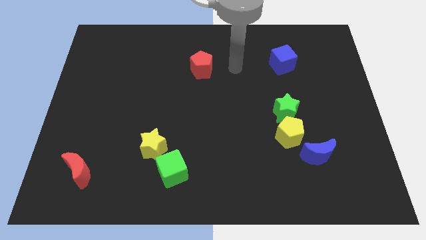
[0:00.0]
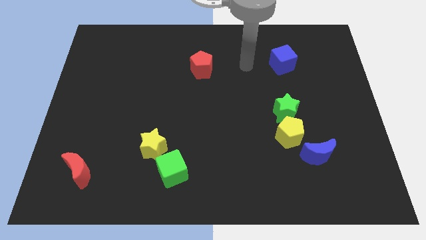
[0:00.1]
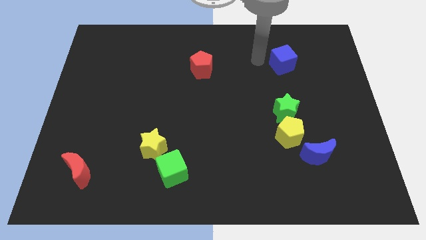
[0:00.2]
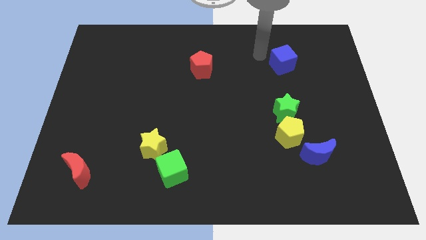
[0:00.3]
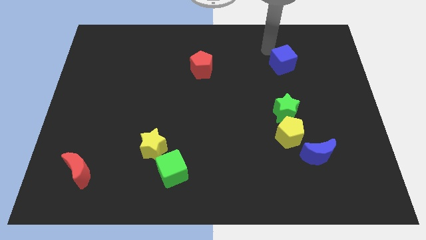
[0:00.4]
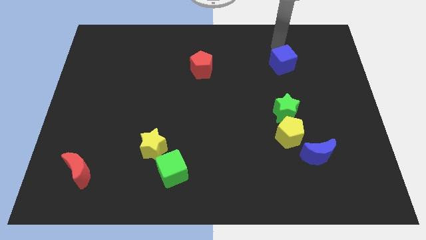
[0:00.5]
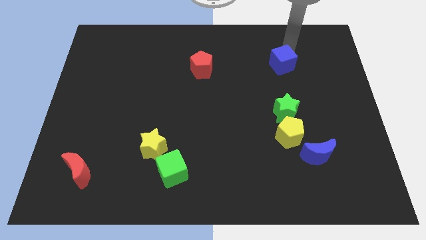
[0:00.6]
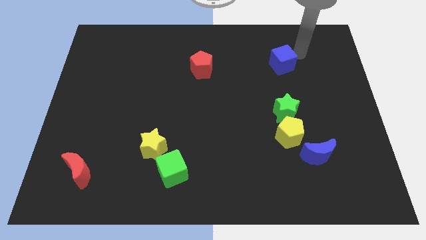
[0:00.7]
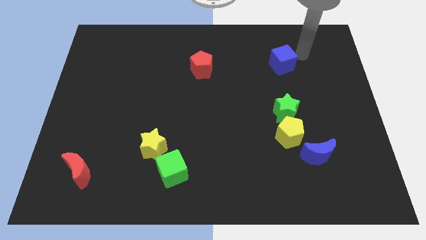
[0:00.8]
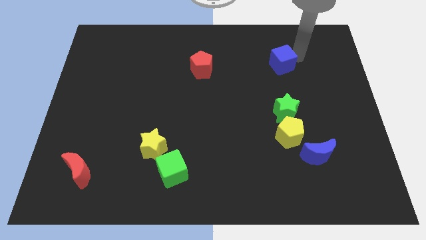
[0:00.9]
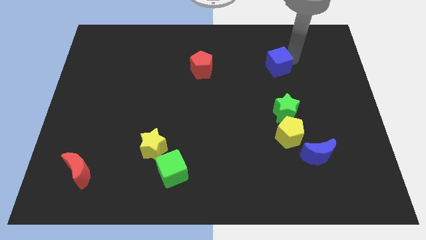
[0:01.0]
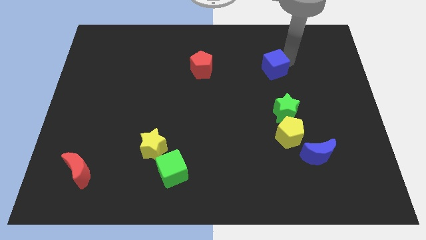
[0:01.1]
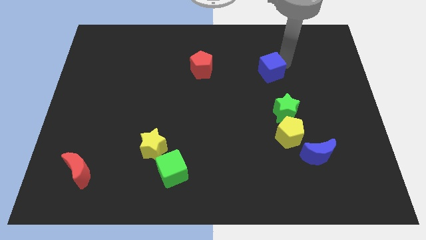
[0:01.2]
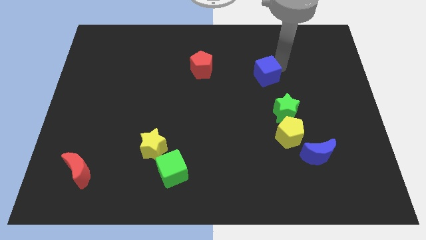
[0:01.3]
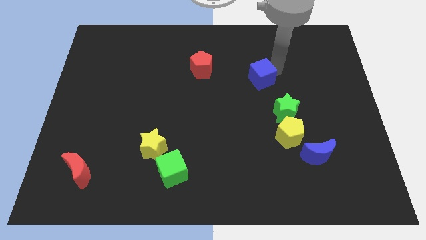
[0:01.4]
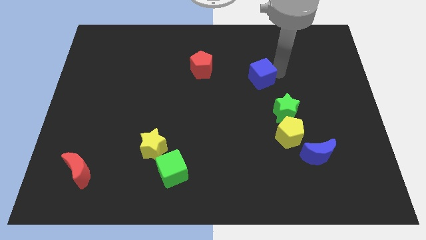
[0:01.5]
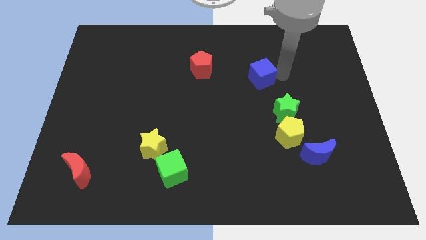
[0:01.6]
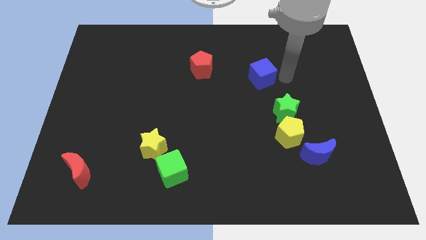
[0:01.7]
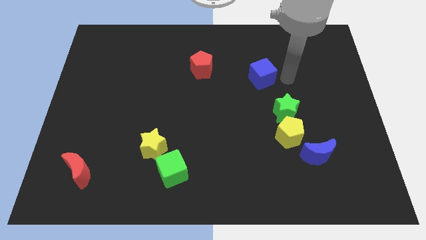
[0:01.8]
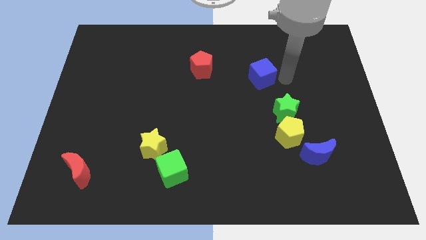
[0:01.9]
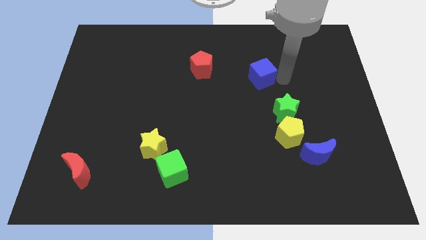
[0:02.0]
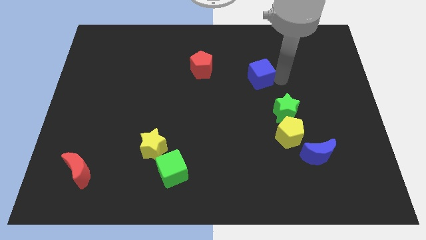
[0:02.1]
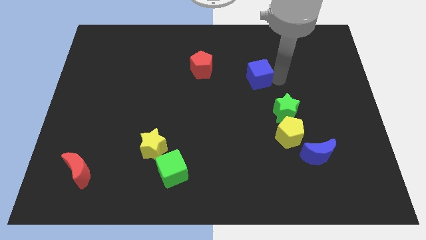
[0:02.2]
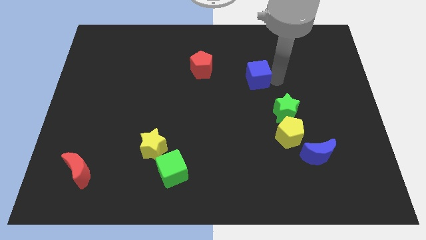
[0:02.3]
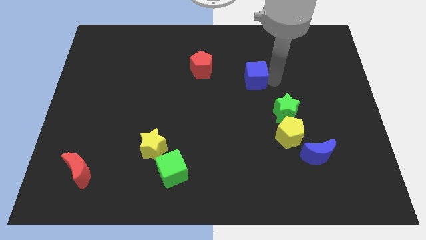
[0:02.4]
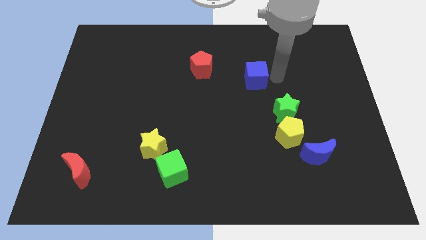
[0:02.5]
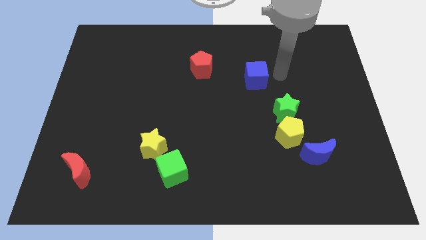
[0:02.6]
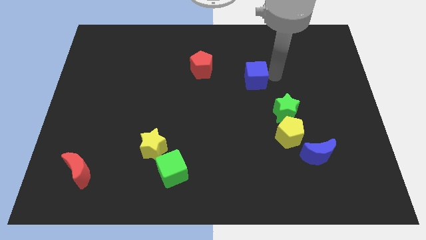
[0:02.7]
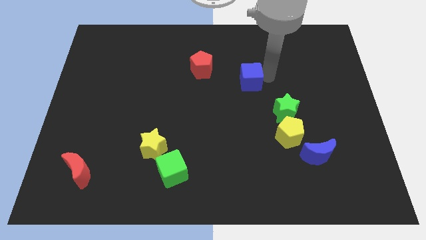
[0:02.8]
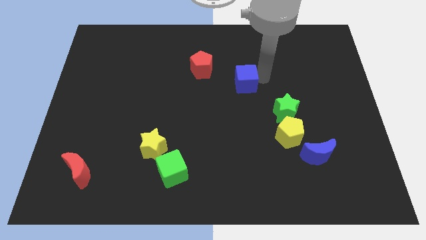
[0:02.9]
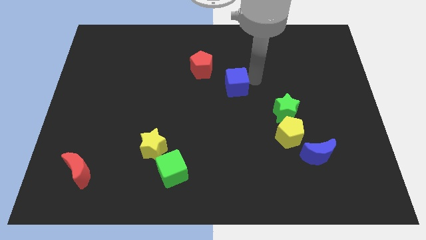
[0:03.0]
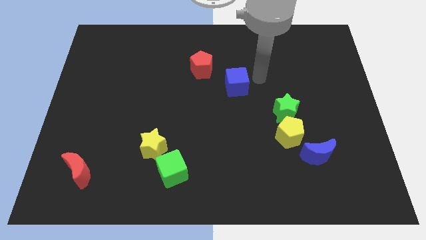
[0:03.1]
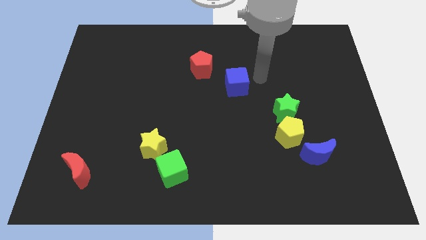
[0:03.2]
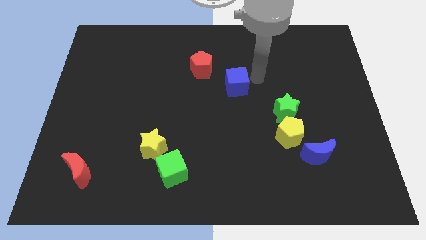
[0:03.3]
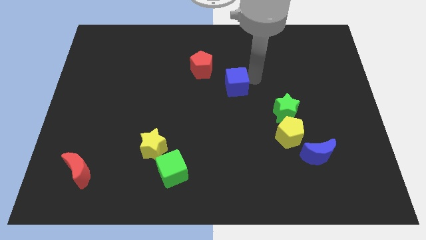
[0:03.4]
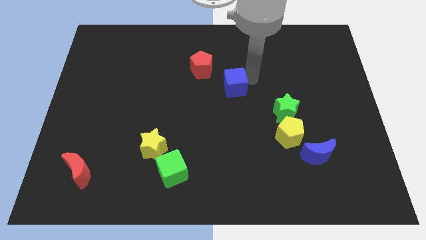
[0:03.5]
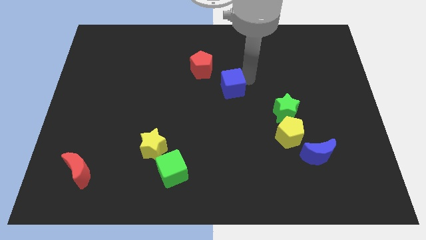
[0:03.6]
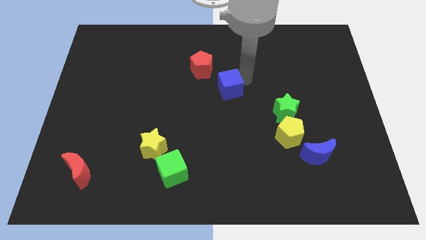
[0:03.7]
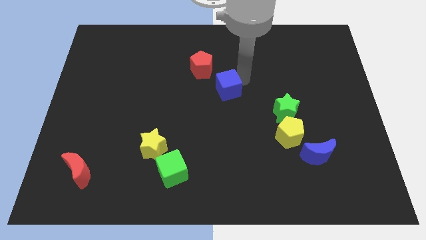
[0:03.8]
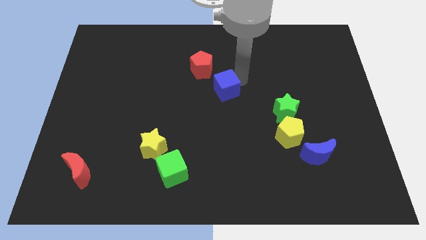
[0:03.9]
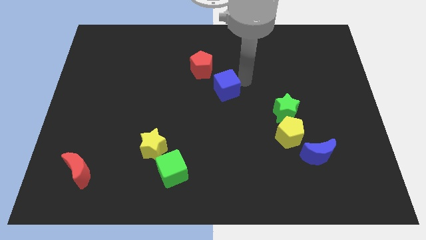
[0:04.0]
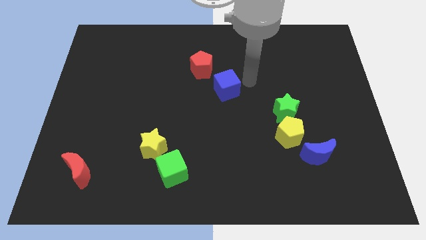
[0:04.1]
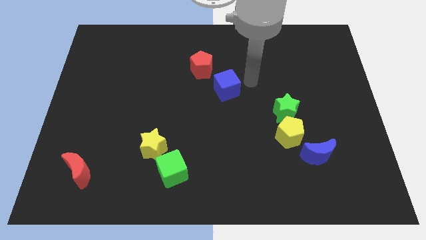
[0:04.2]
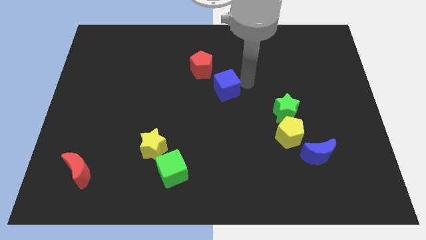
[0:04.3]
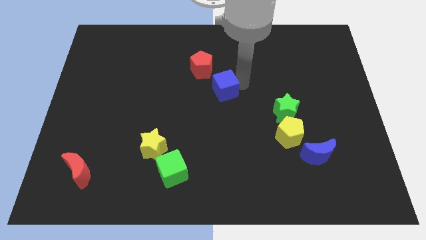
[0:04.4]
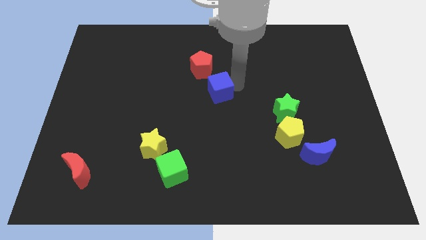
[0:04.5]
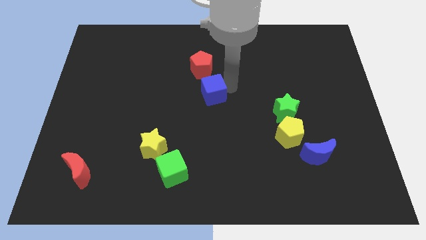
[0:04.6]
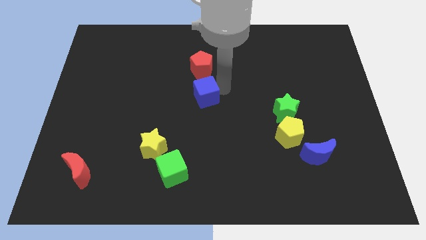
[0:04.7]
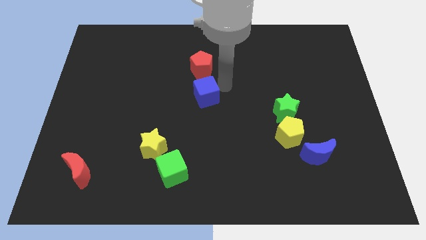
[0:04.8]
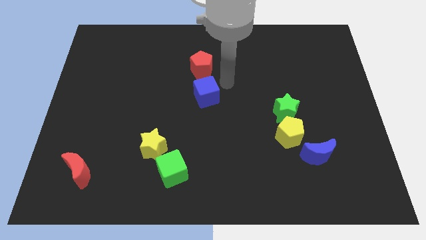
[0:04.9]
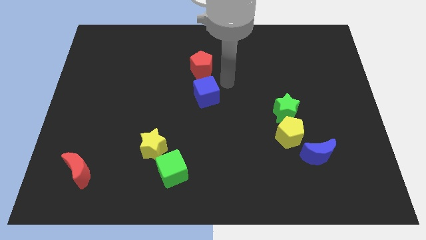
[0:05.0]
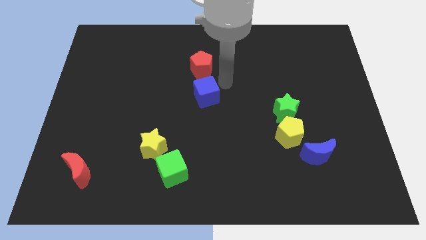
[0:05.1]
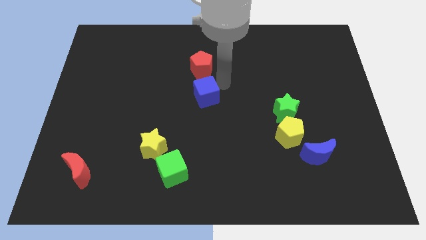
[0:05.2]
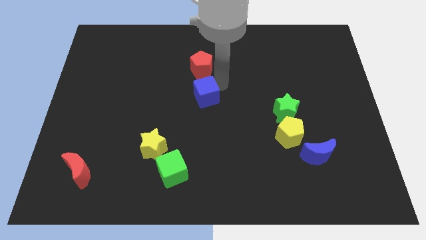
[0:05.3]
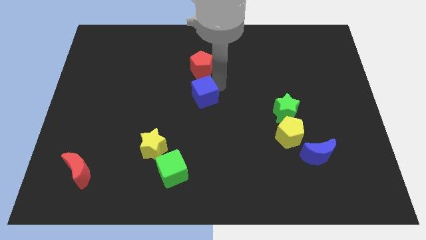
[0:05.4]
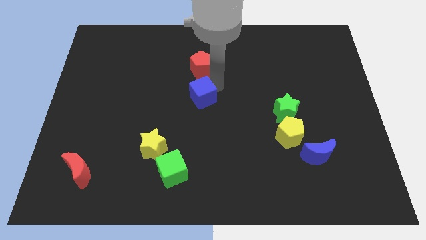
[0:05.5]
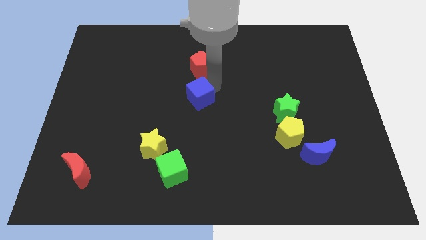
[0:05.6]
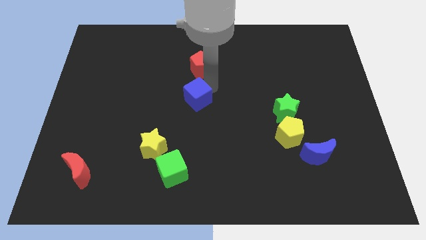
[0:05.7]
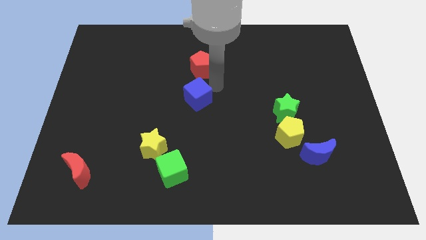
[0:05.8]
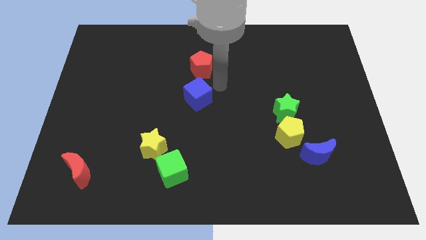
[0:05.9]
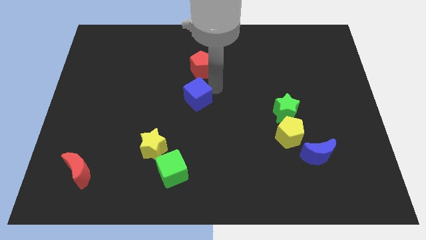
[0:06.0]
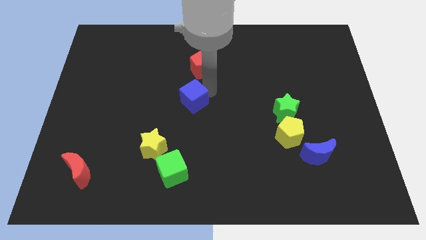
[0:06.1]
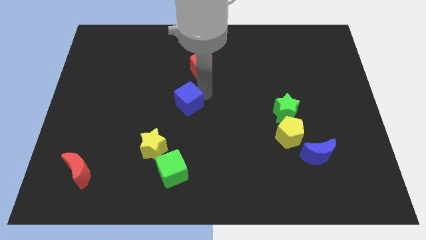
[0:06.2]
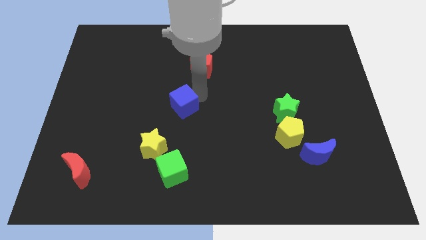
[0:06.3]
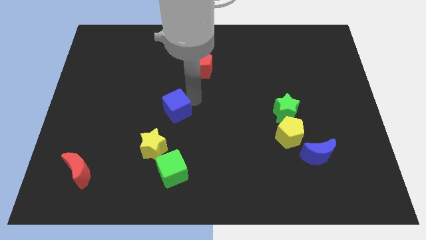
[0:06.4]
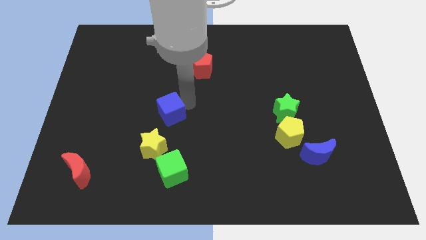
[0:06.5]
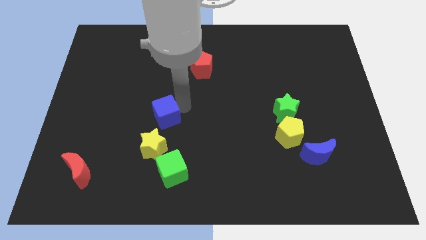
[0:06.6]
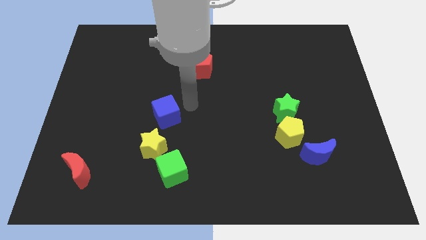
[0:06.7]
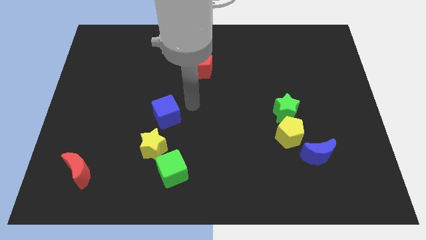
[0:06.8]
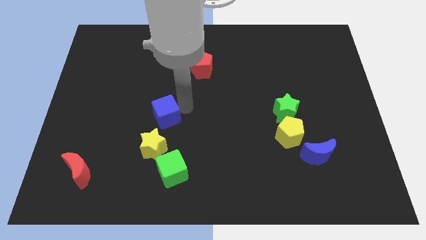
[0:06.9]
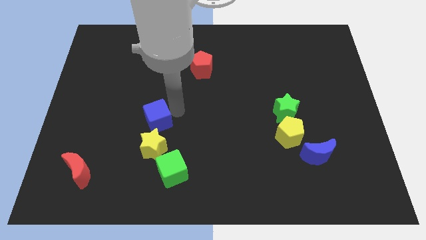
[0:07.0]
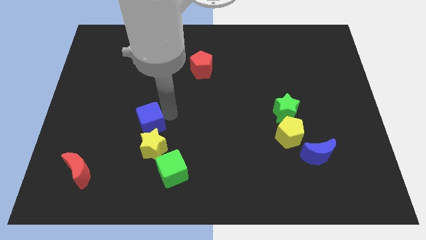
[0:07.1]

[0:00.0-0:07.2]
push the blue cube to the top left of the yellow star

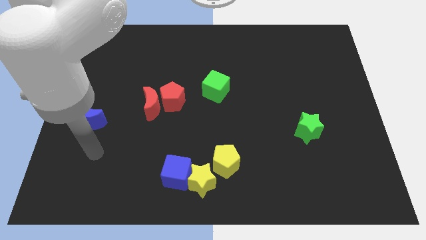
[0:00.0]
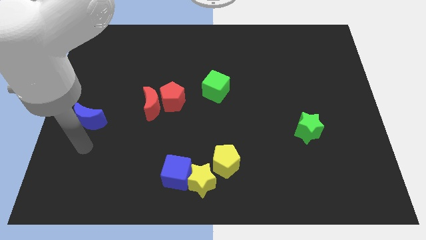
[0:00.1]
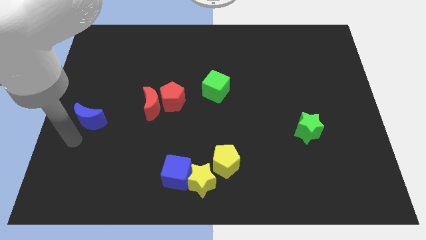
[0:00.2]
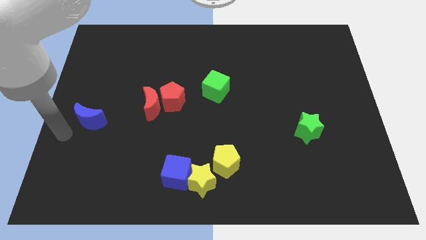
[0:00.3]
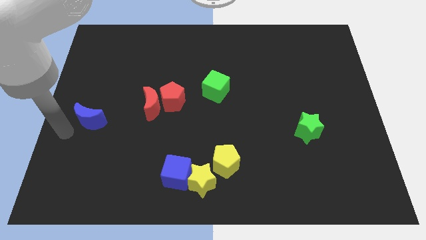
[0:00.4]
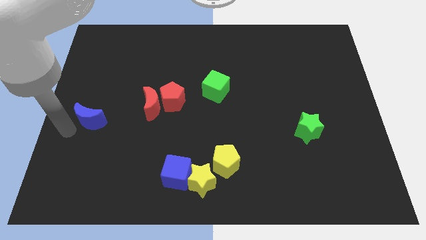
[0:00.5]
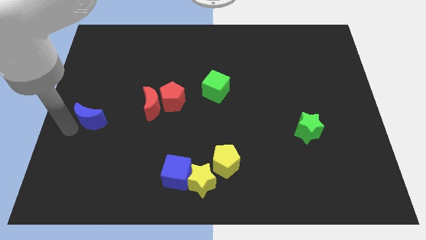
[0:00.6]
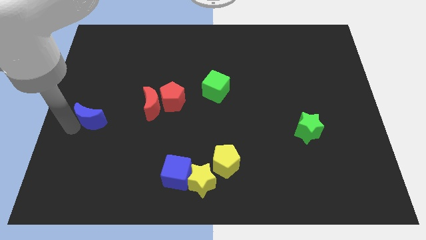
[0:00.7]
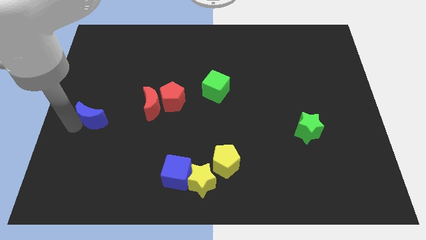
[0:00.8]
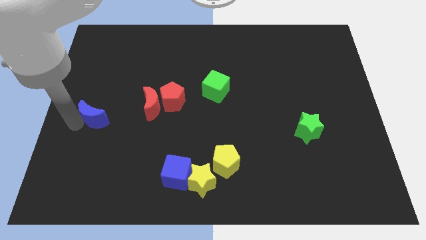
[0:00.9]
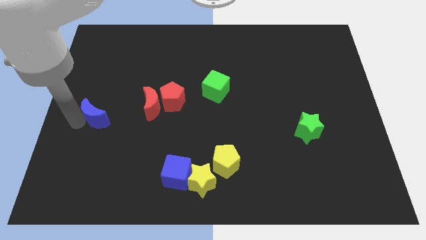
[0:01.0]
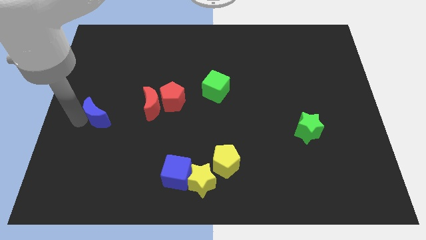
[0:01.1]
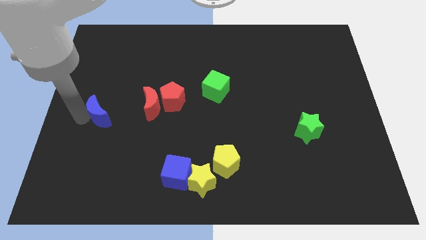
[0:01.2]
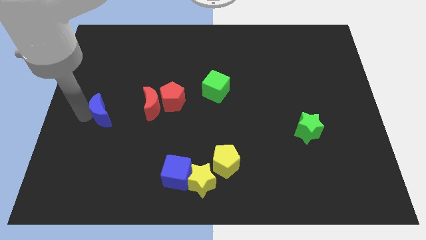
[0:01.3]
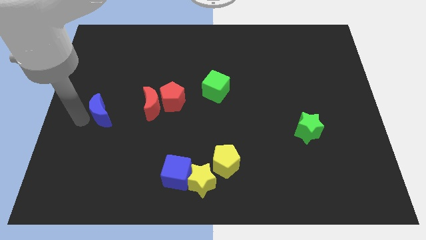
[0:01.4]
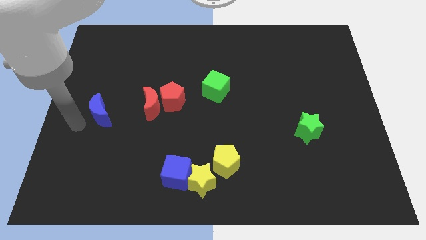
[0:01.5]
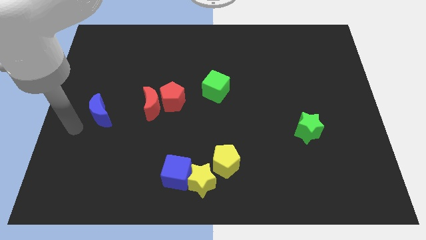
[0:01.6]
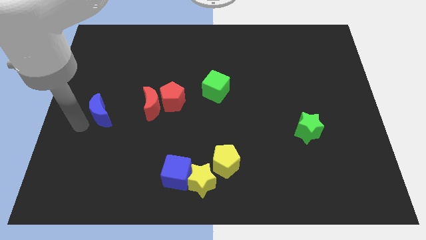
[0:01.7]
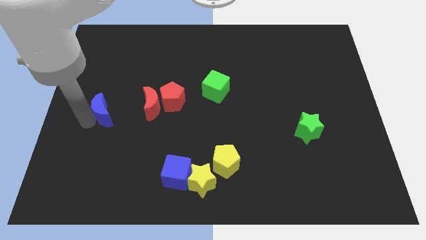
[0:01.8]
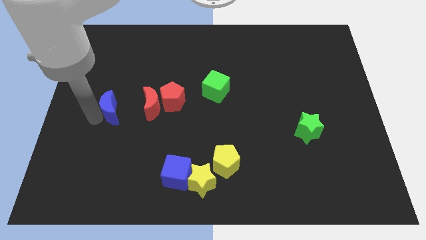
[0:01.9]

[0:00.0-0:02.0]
move the blue moon to the left of the red pentagon
